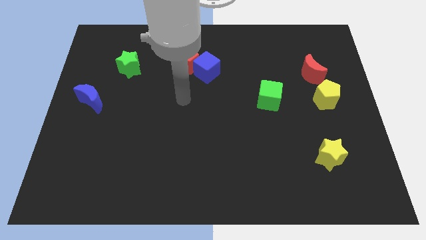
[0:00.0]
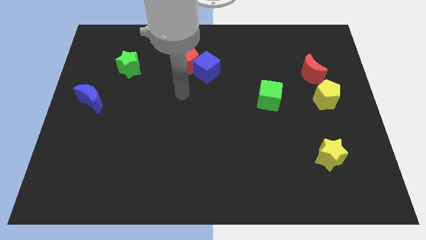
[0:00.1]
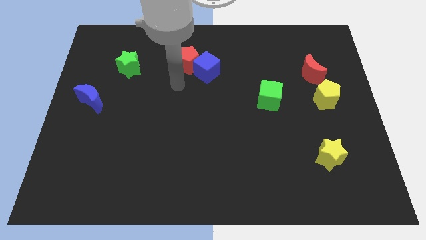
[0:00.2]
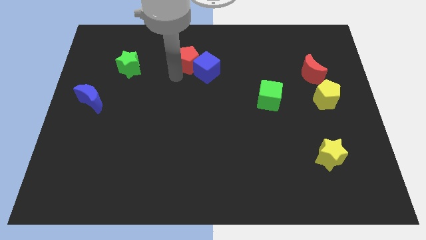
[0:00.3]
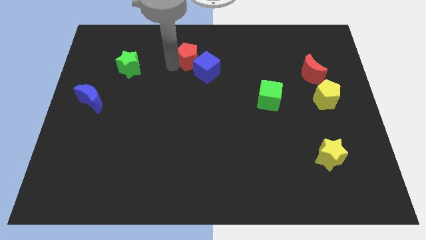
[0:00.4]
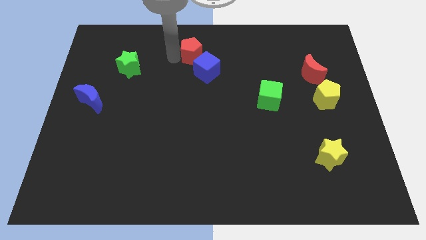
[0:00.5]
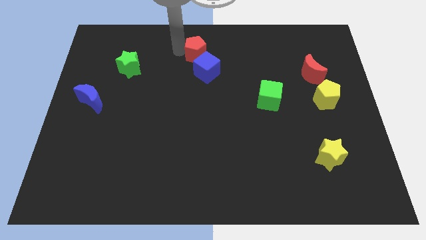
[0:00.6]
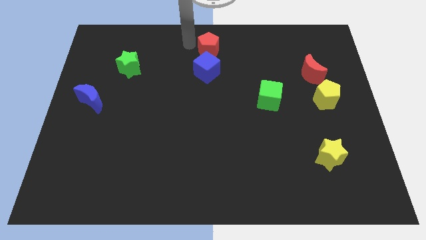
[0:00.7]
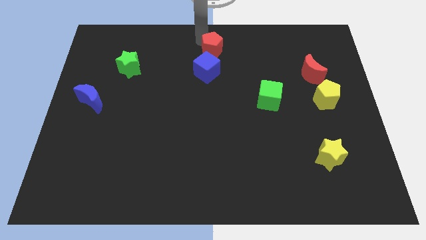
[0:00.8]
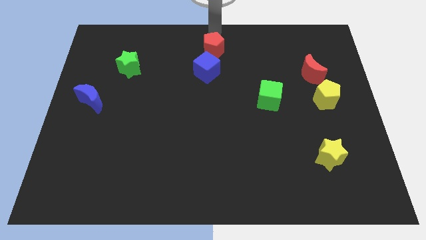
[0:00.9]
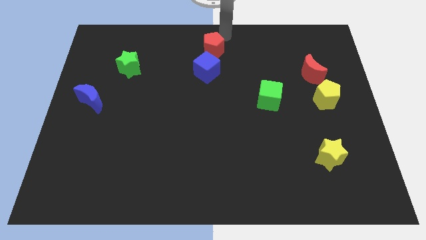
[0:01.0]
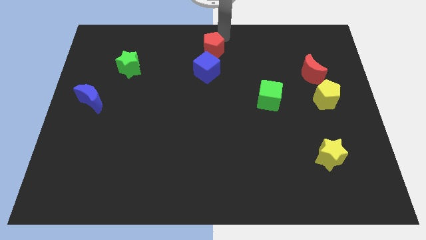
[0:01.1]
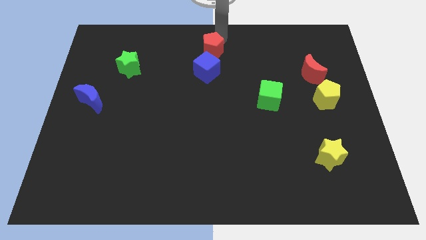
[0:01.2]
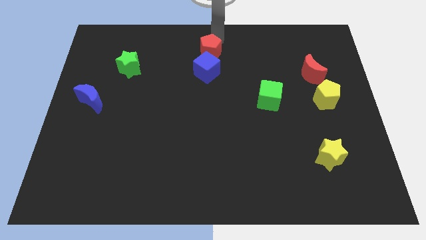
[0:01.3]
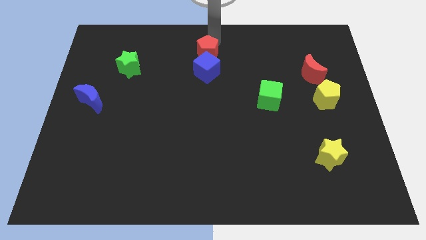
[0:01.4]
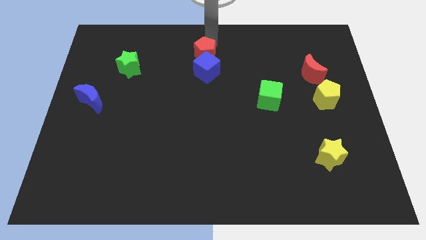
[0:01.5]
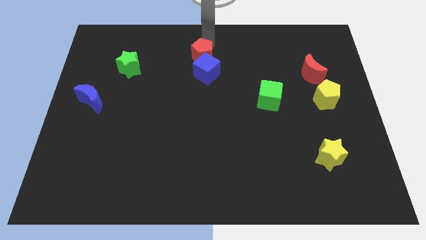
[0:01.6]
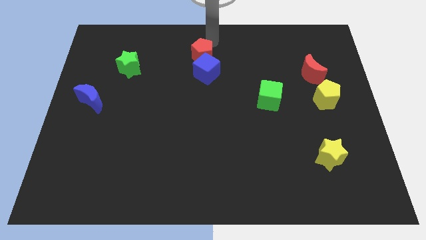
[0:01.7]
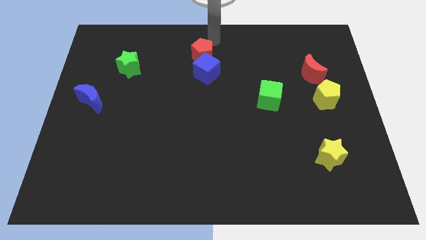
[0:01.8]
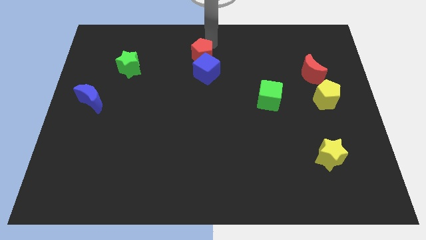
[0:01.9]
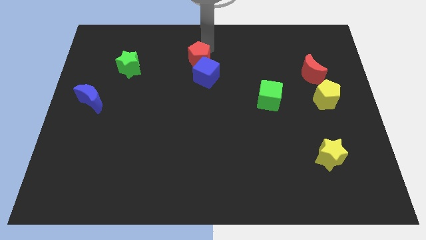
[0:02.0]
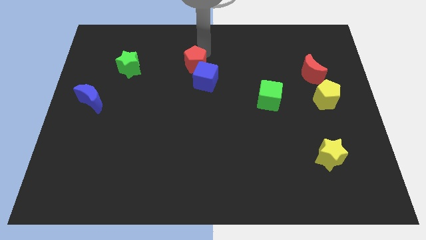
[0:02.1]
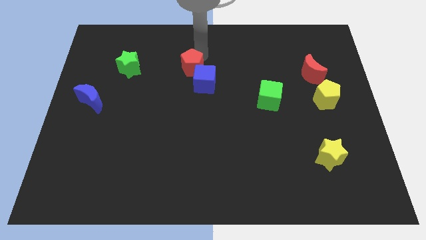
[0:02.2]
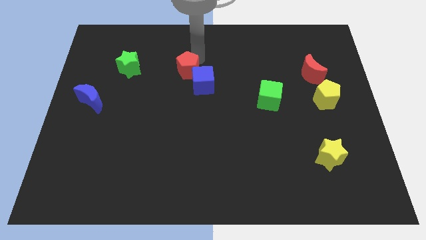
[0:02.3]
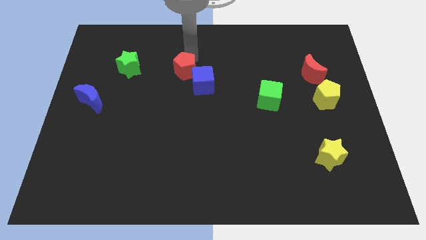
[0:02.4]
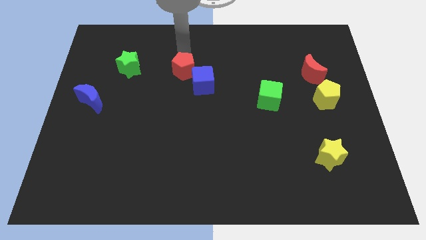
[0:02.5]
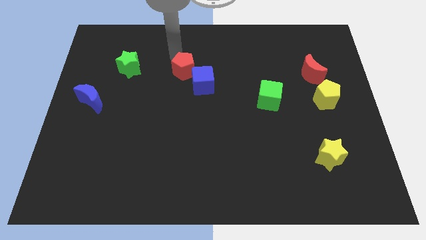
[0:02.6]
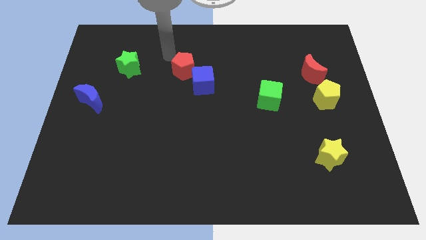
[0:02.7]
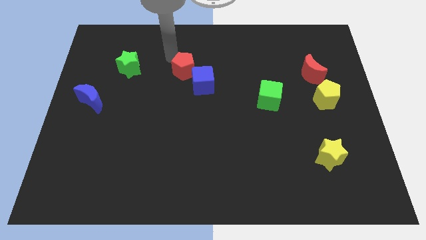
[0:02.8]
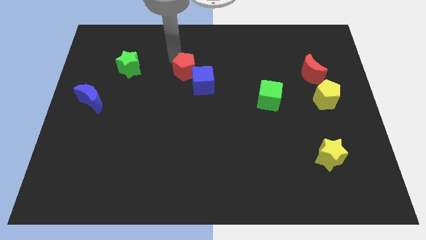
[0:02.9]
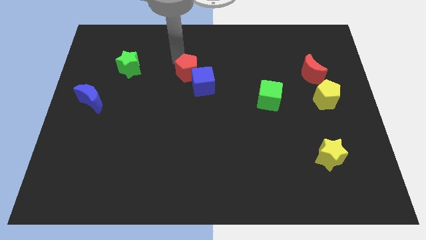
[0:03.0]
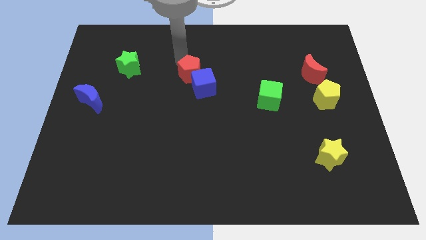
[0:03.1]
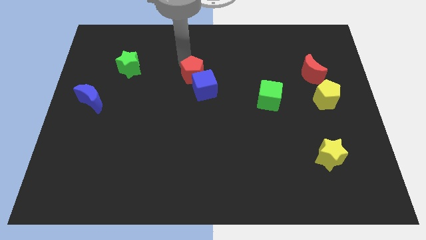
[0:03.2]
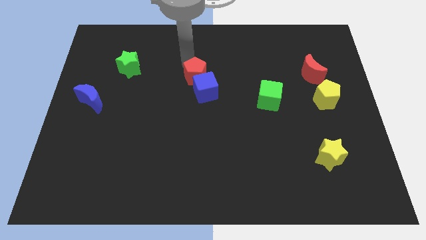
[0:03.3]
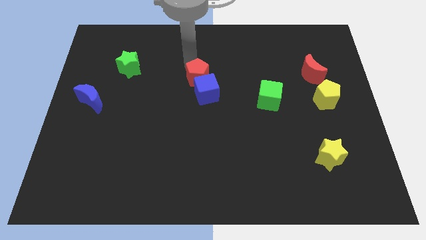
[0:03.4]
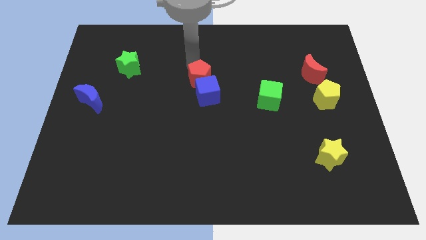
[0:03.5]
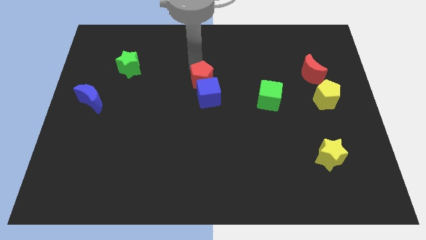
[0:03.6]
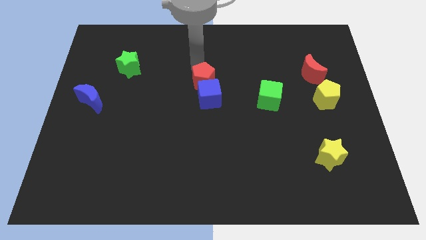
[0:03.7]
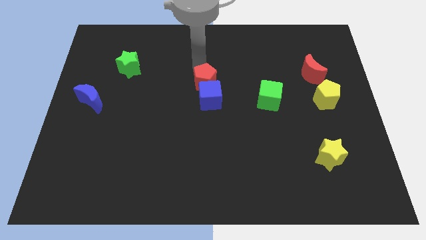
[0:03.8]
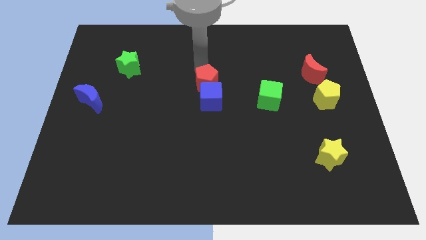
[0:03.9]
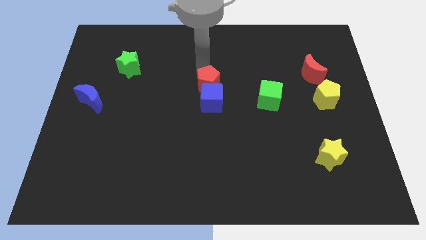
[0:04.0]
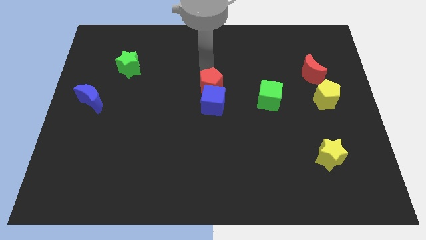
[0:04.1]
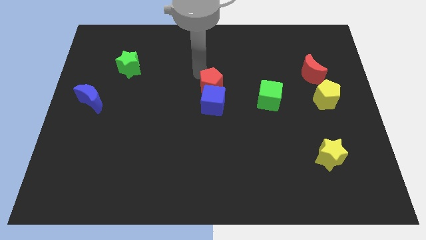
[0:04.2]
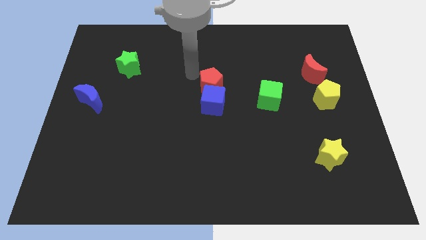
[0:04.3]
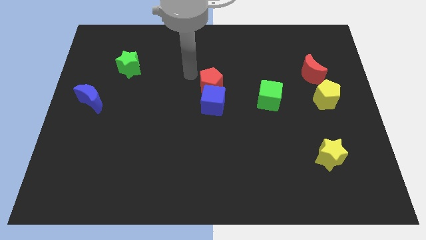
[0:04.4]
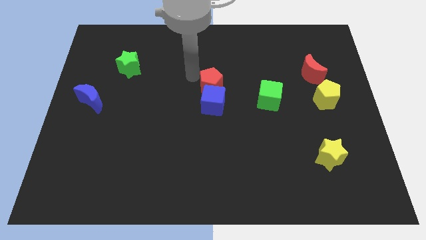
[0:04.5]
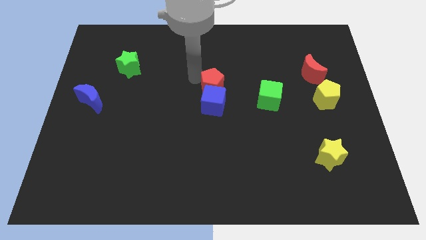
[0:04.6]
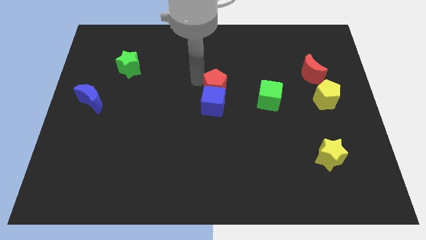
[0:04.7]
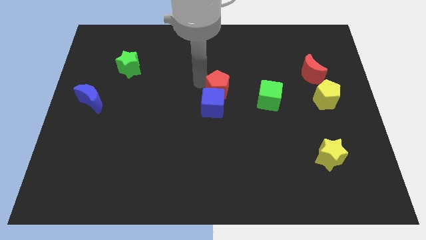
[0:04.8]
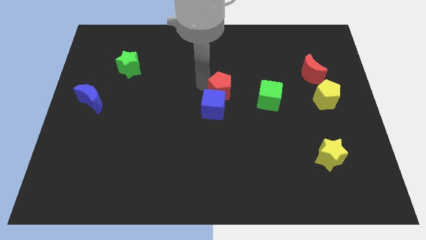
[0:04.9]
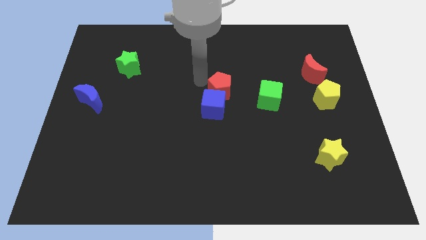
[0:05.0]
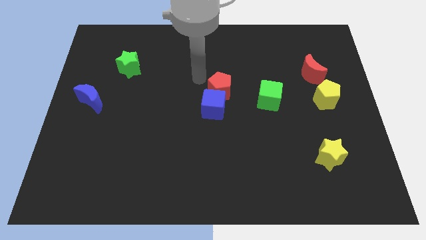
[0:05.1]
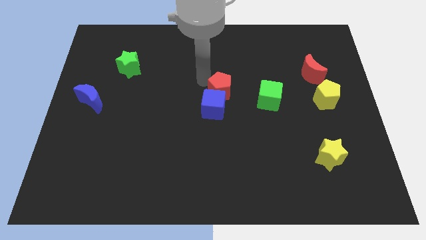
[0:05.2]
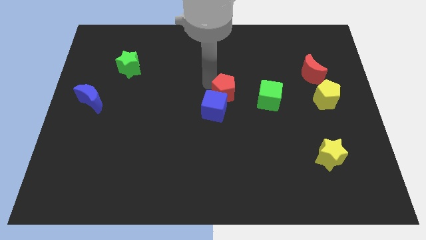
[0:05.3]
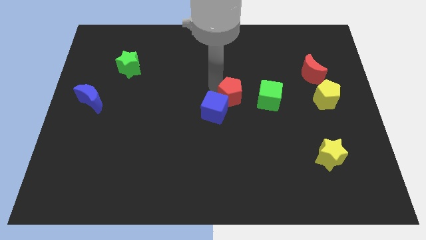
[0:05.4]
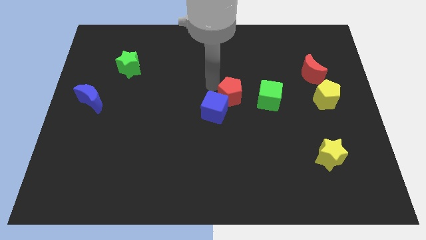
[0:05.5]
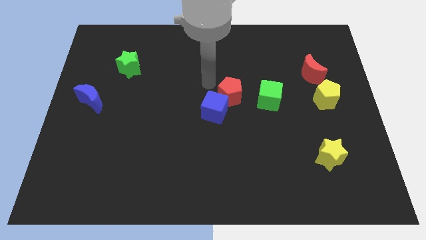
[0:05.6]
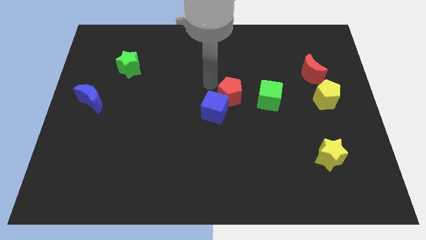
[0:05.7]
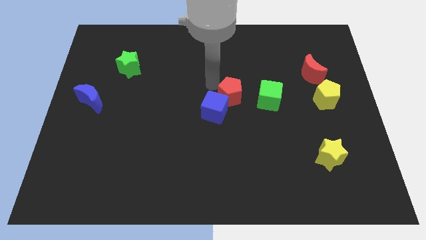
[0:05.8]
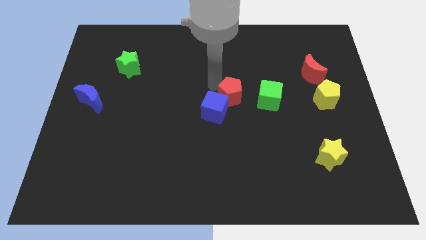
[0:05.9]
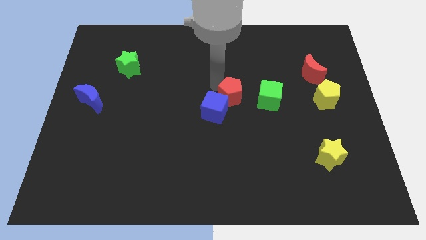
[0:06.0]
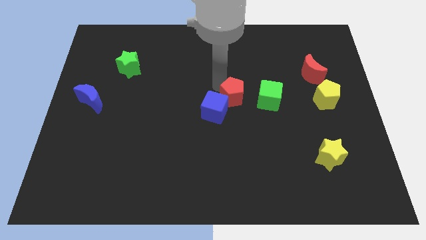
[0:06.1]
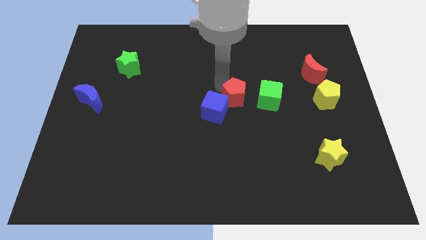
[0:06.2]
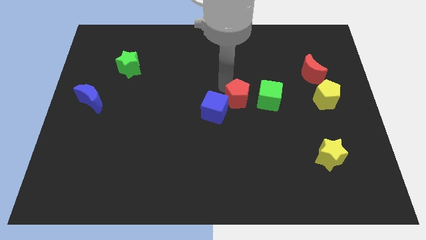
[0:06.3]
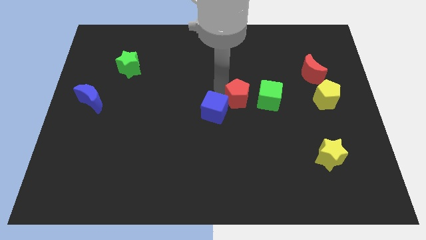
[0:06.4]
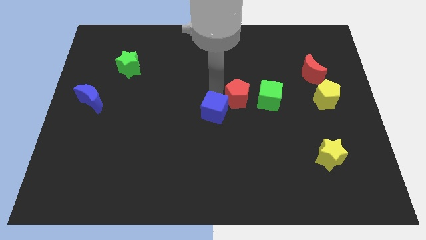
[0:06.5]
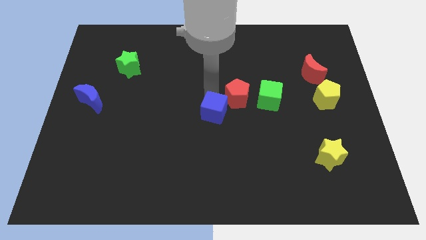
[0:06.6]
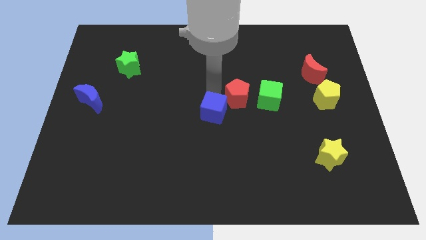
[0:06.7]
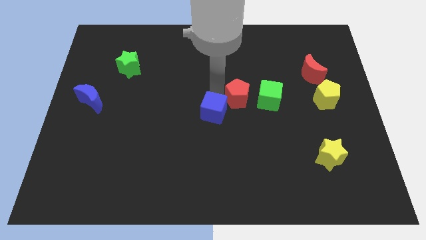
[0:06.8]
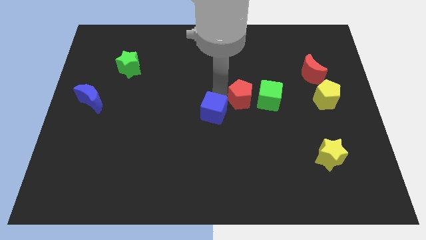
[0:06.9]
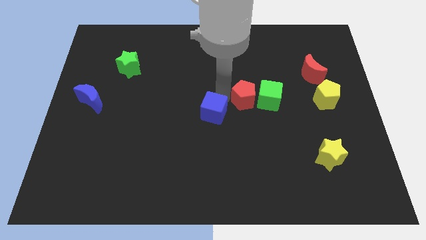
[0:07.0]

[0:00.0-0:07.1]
slide the red pentagon close to the green cube

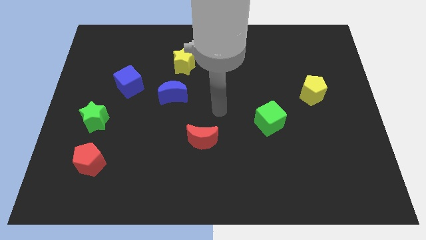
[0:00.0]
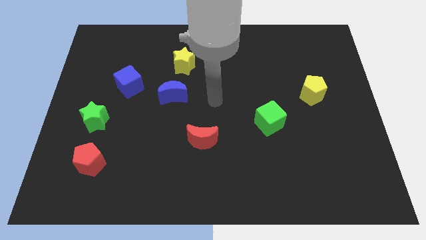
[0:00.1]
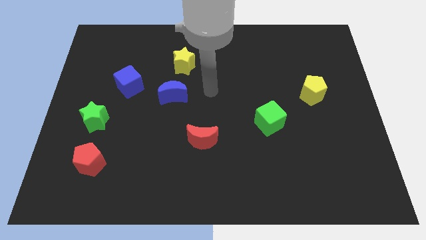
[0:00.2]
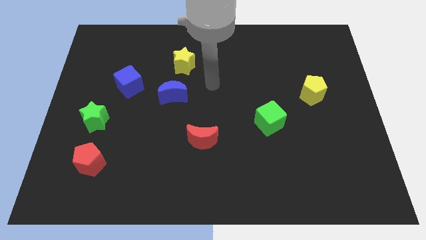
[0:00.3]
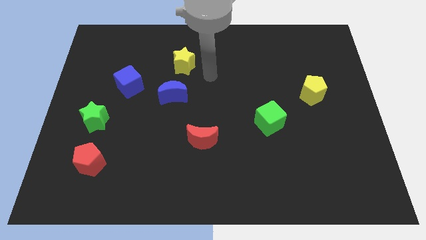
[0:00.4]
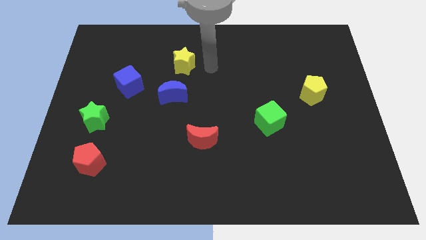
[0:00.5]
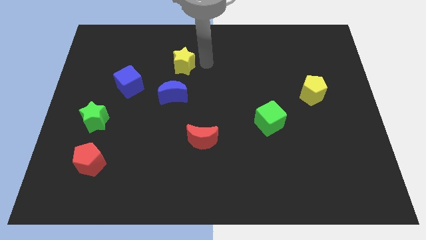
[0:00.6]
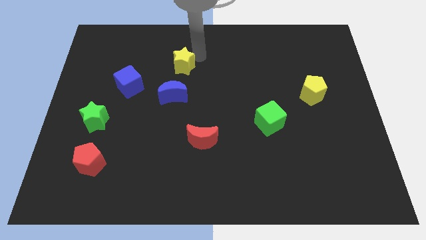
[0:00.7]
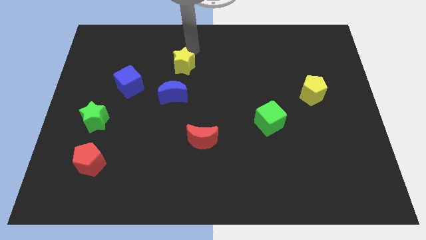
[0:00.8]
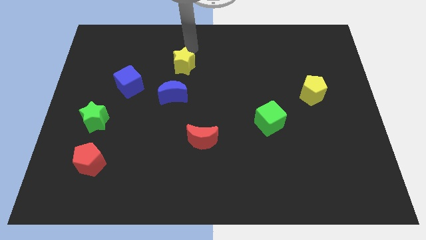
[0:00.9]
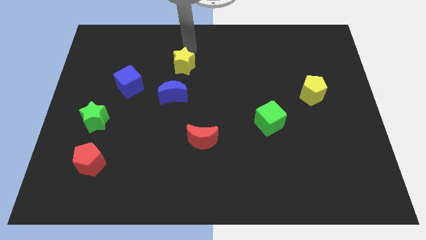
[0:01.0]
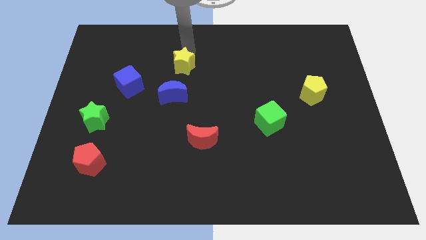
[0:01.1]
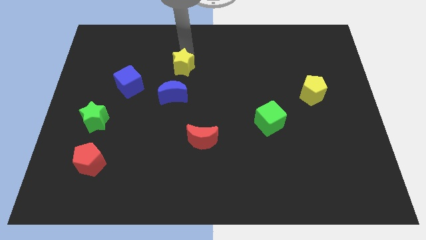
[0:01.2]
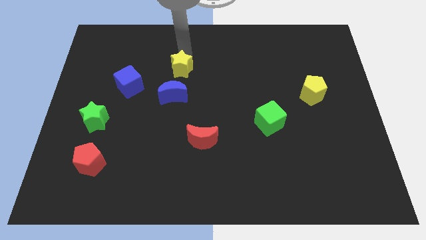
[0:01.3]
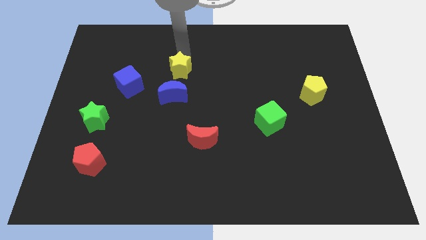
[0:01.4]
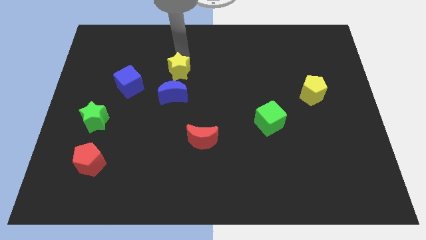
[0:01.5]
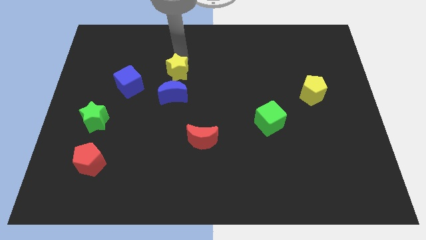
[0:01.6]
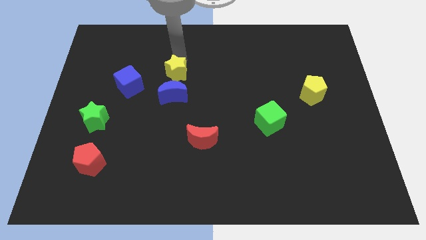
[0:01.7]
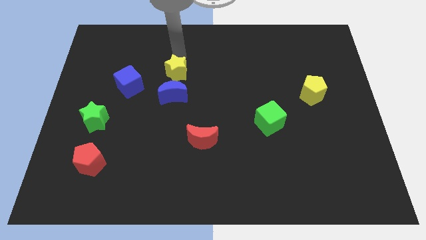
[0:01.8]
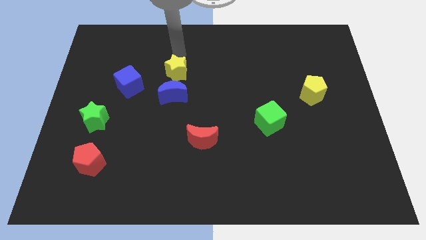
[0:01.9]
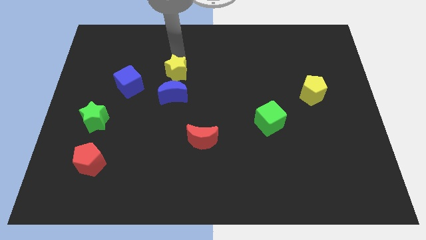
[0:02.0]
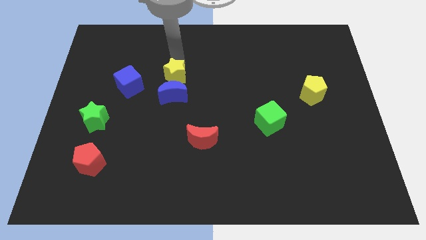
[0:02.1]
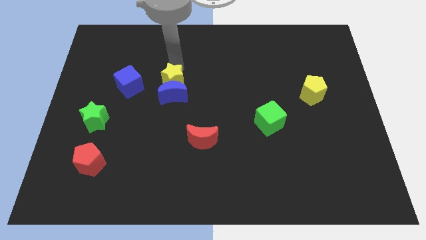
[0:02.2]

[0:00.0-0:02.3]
push the yellow star next to the blue moon
